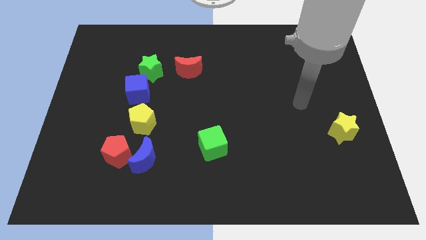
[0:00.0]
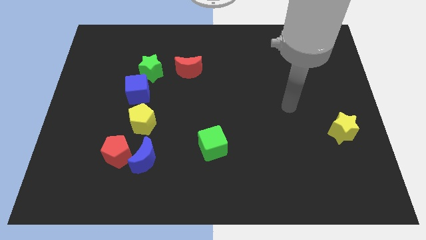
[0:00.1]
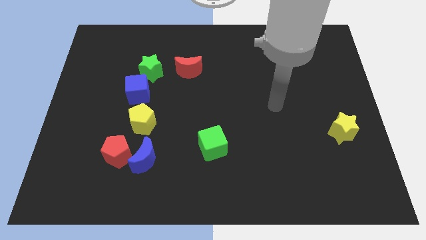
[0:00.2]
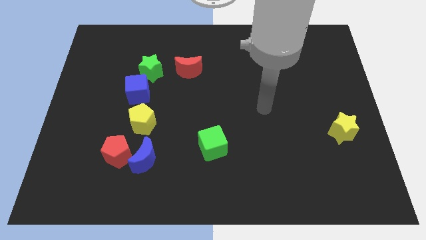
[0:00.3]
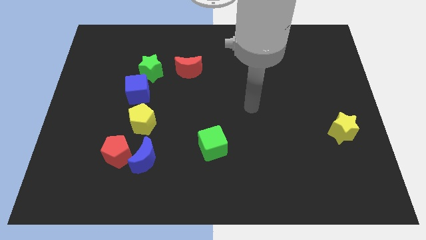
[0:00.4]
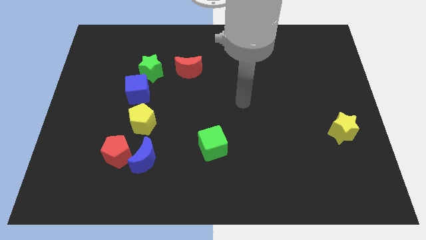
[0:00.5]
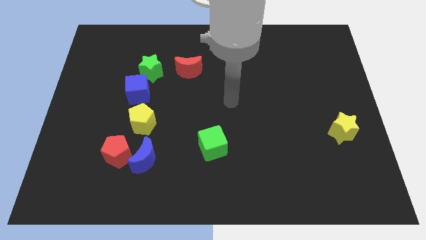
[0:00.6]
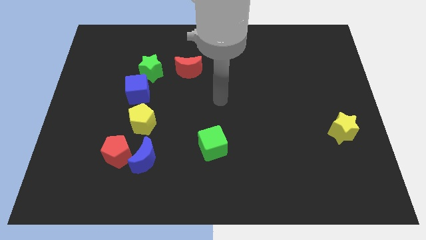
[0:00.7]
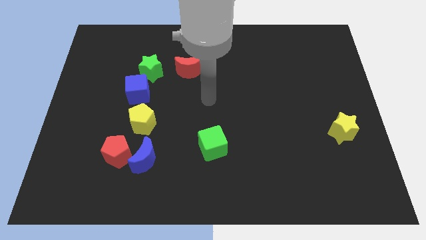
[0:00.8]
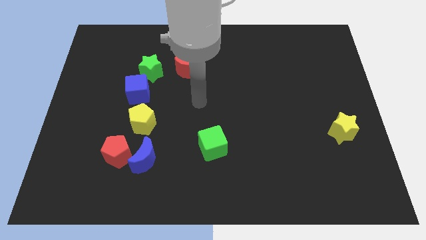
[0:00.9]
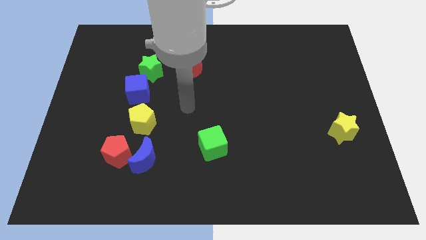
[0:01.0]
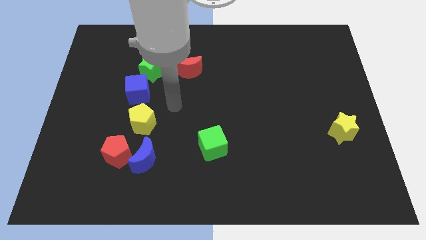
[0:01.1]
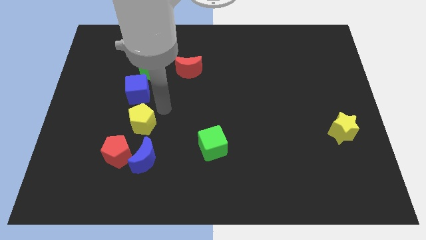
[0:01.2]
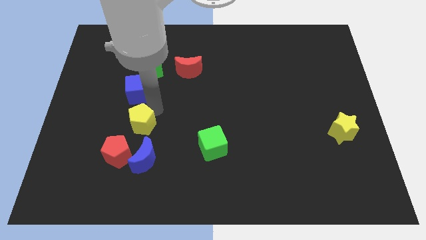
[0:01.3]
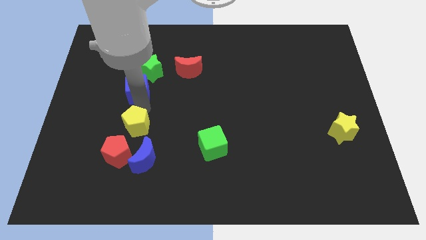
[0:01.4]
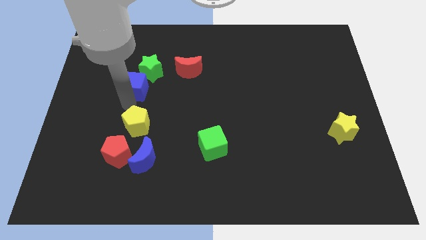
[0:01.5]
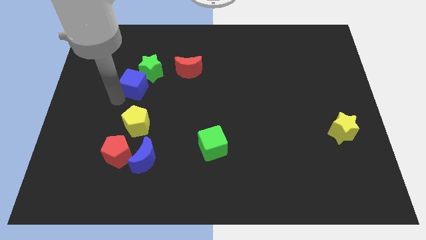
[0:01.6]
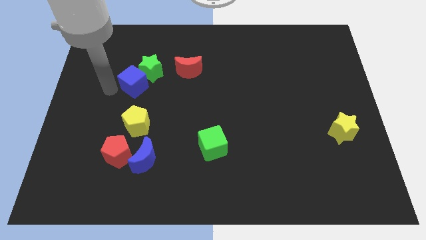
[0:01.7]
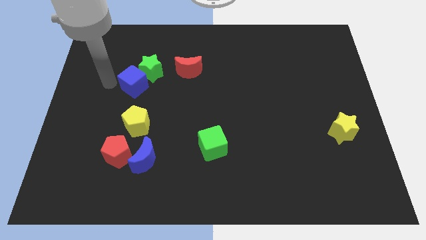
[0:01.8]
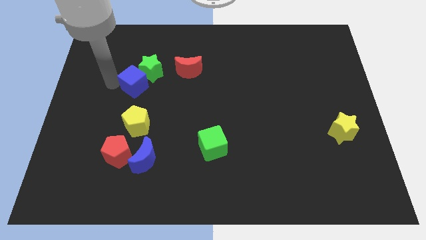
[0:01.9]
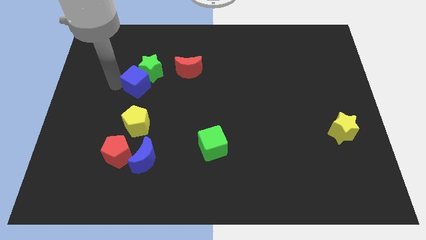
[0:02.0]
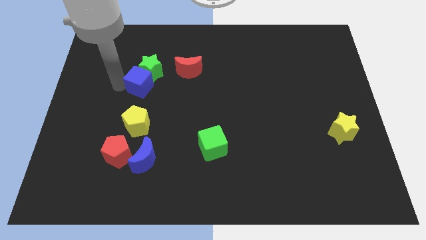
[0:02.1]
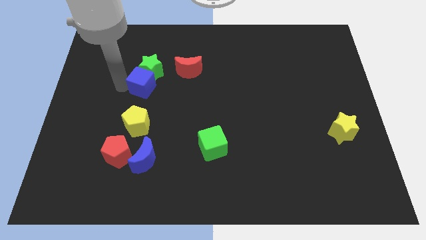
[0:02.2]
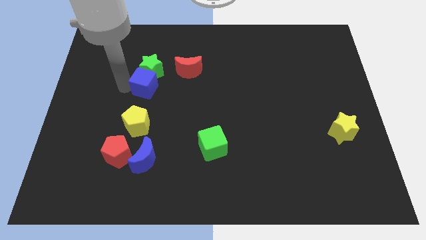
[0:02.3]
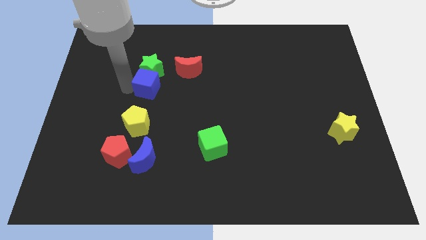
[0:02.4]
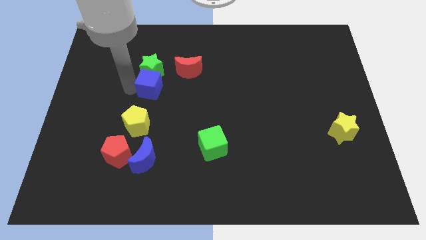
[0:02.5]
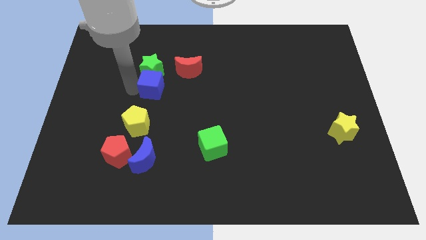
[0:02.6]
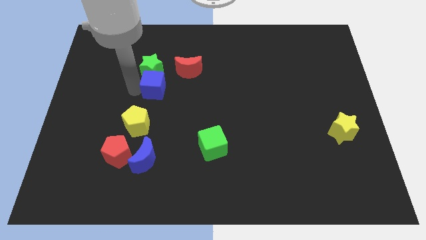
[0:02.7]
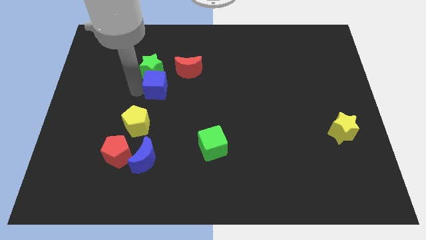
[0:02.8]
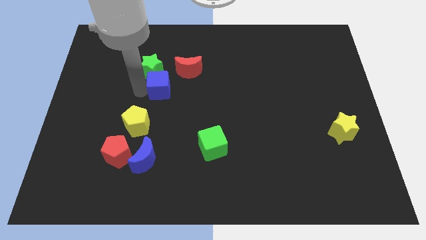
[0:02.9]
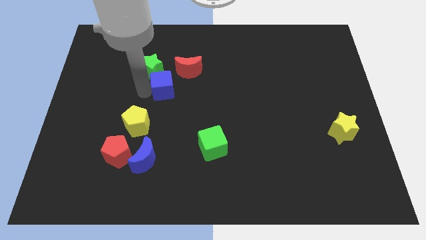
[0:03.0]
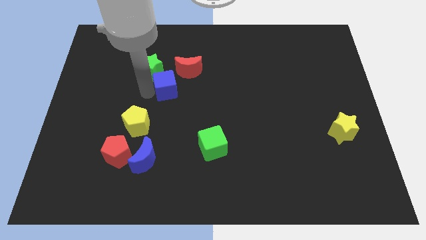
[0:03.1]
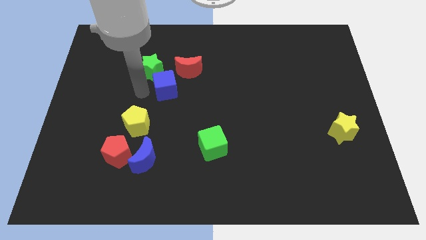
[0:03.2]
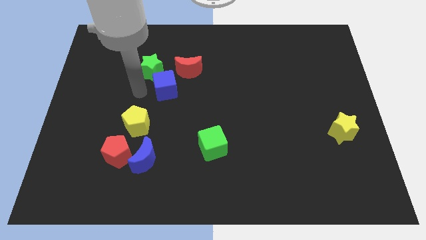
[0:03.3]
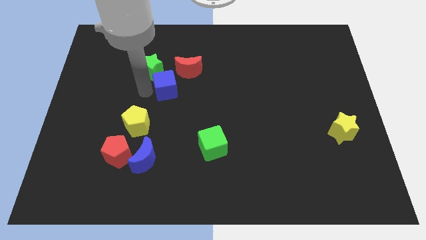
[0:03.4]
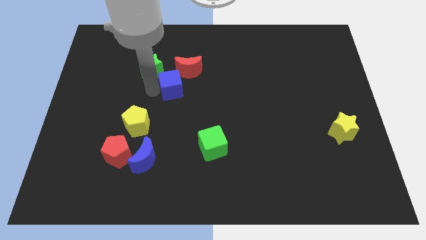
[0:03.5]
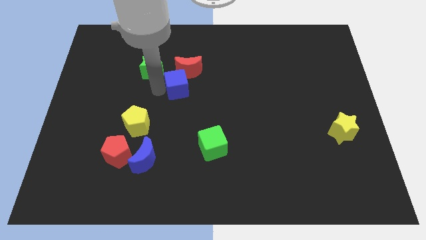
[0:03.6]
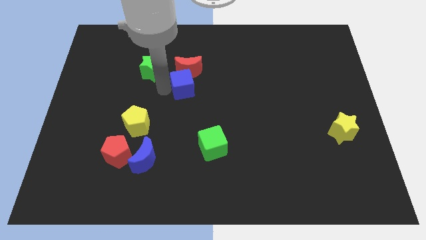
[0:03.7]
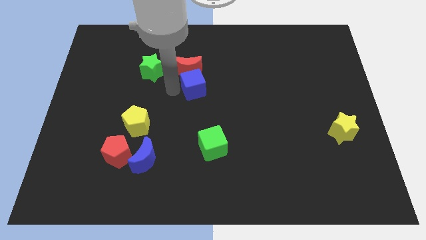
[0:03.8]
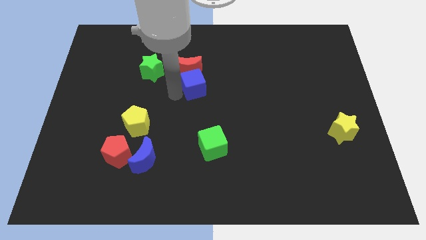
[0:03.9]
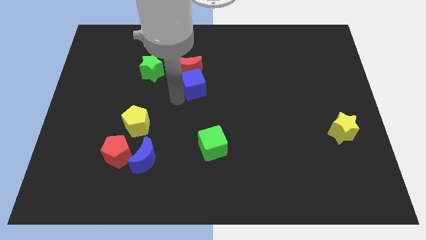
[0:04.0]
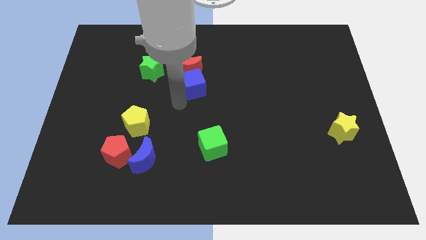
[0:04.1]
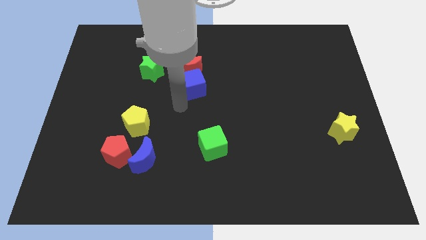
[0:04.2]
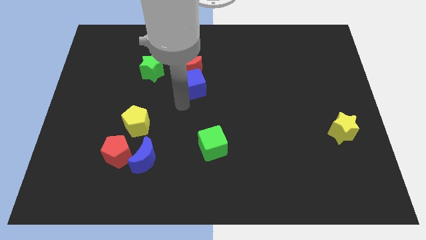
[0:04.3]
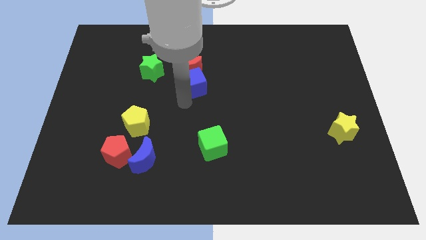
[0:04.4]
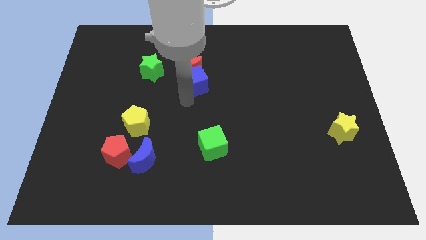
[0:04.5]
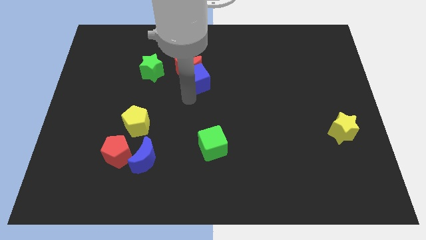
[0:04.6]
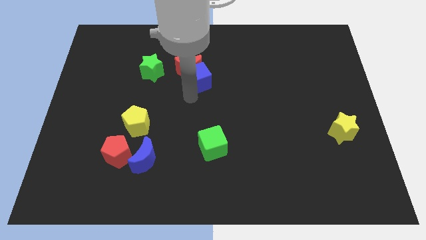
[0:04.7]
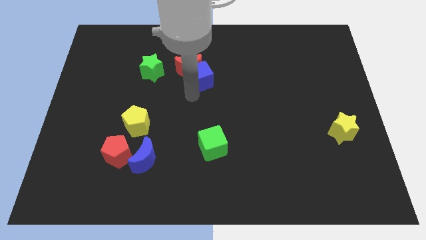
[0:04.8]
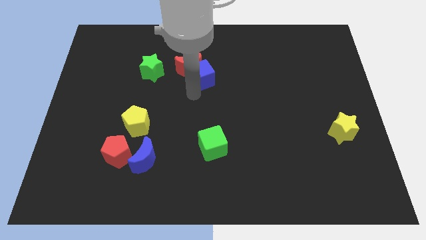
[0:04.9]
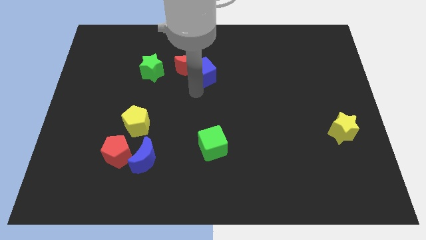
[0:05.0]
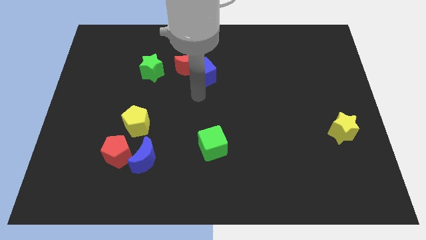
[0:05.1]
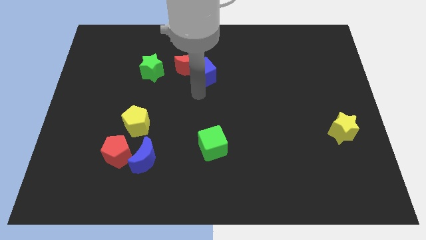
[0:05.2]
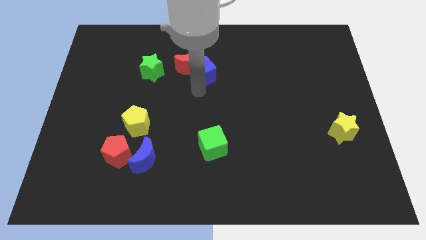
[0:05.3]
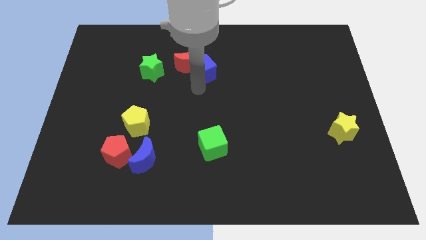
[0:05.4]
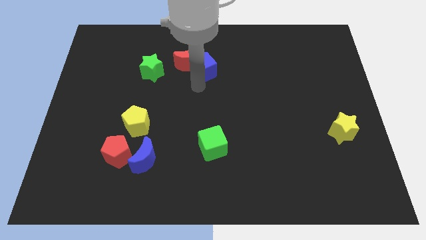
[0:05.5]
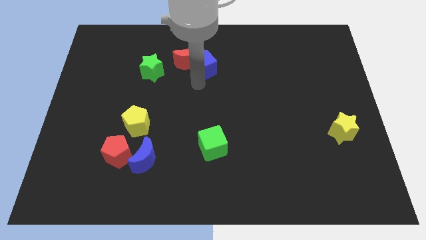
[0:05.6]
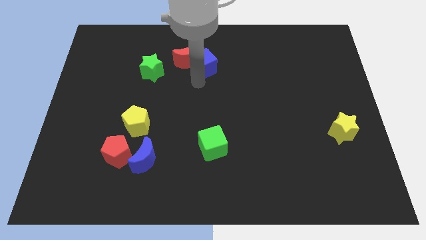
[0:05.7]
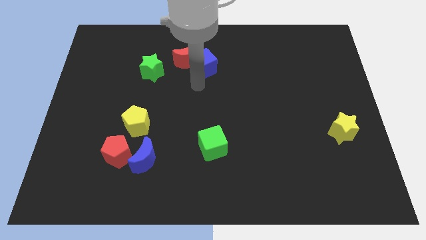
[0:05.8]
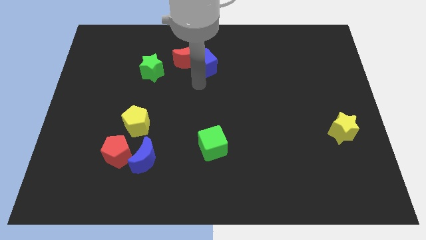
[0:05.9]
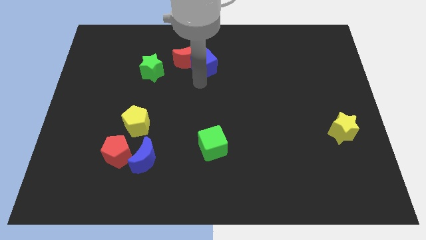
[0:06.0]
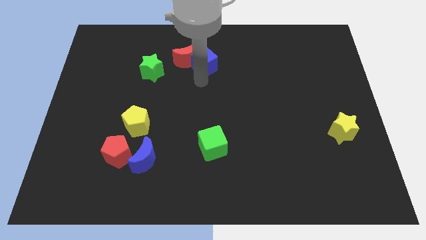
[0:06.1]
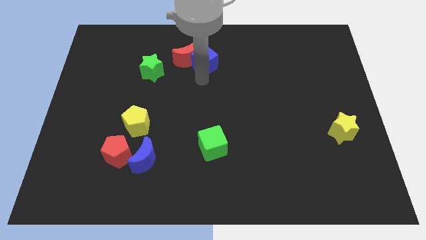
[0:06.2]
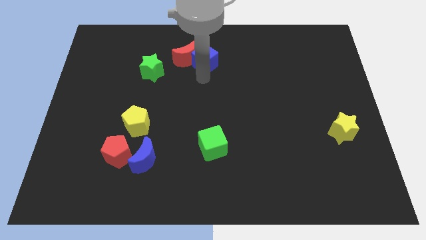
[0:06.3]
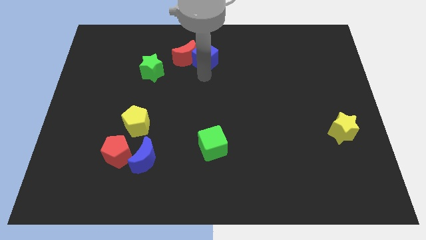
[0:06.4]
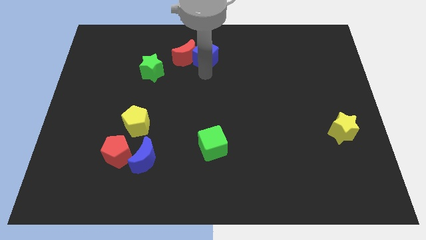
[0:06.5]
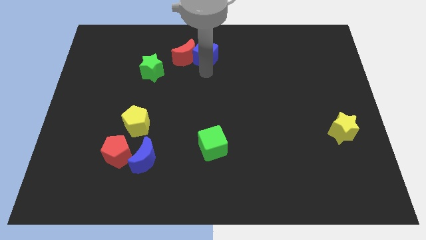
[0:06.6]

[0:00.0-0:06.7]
push the blue cube to the top
